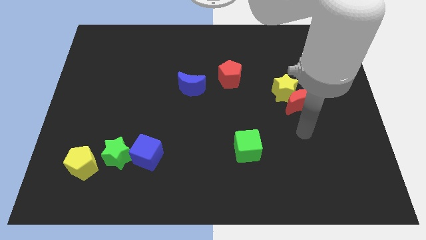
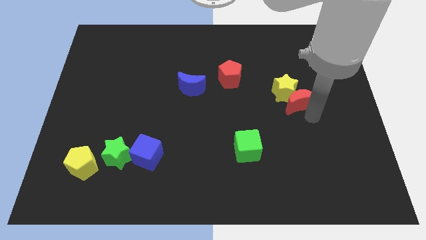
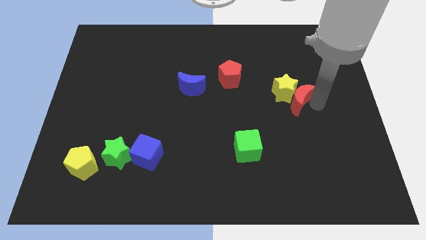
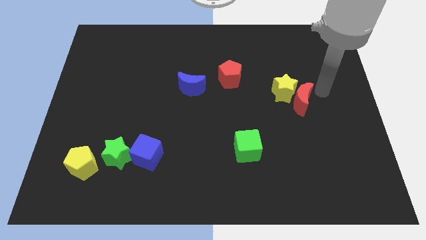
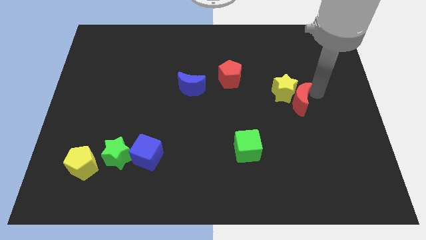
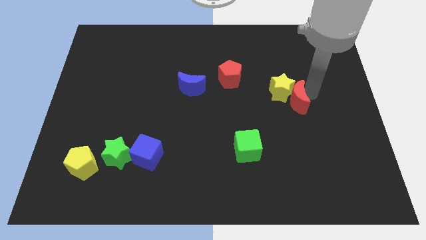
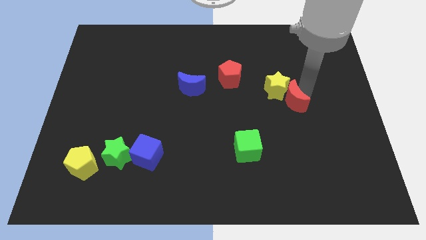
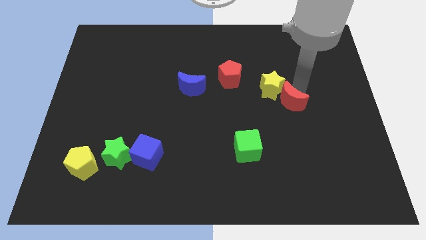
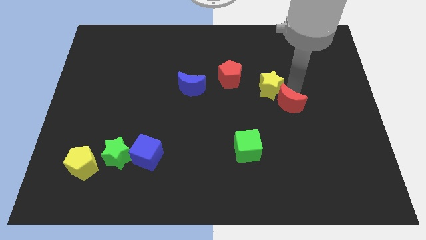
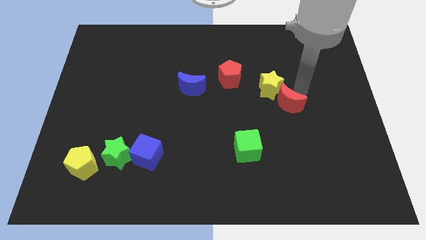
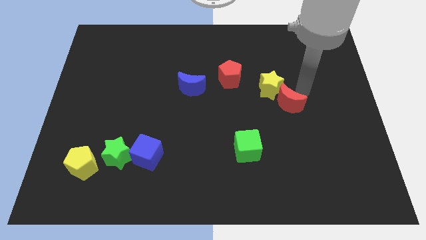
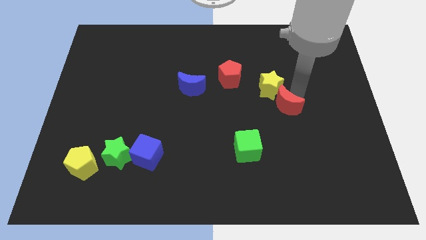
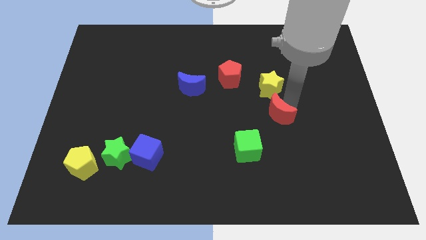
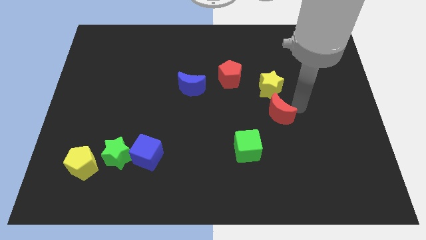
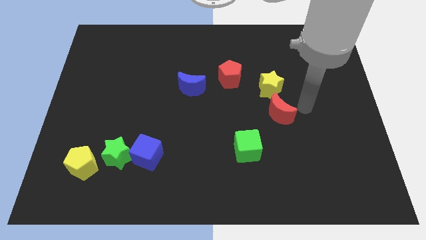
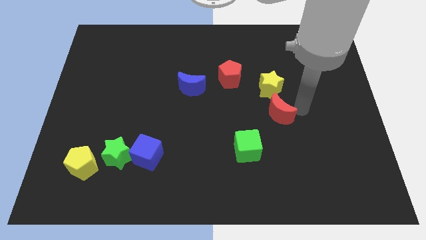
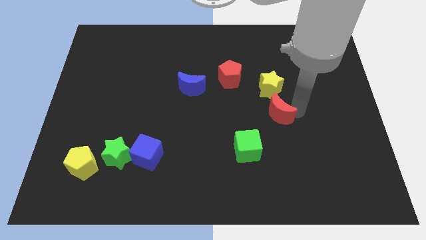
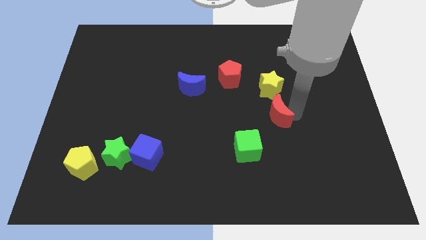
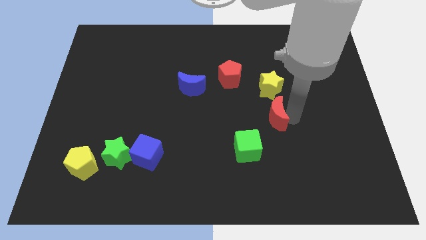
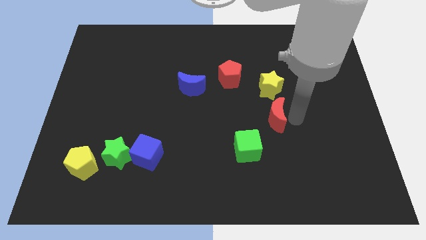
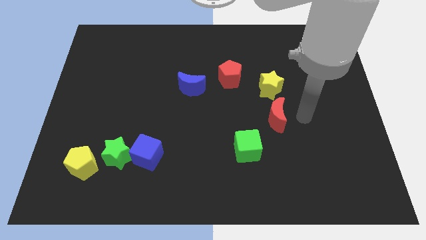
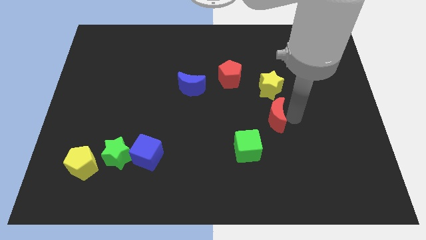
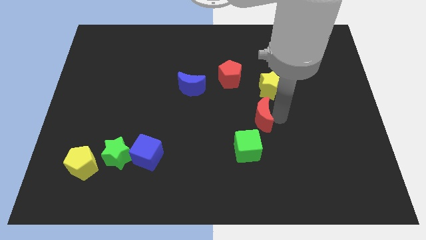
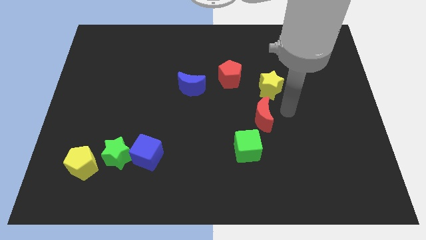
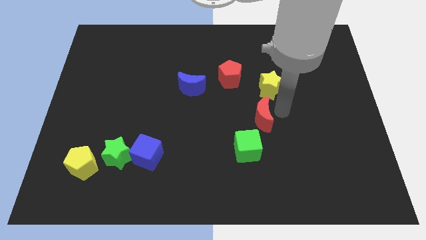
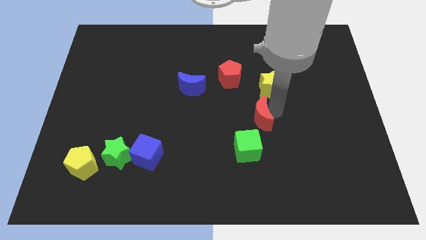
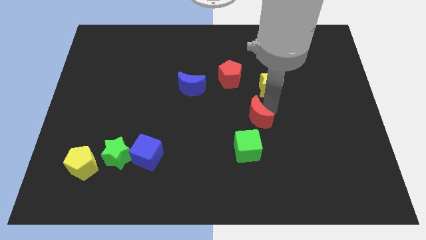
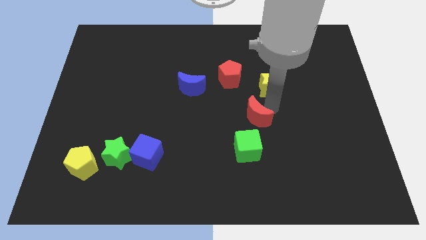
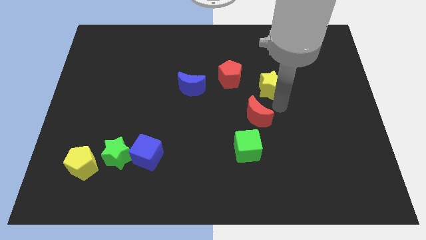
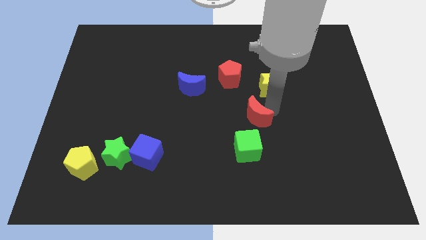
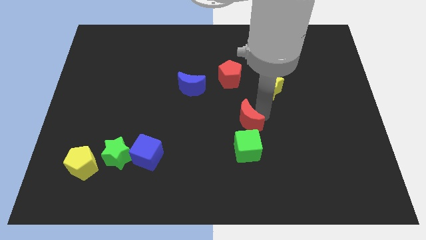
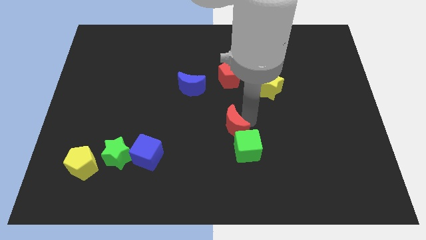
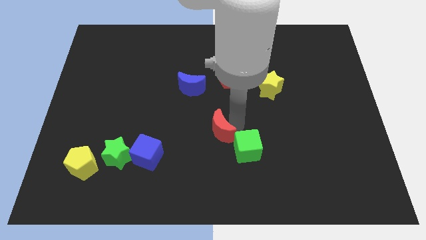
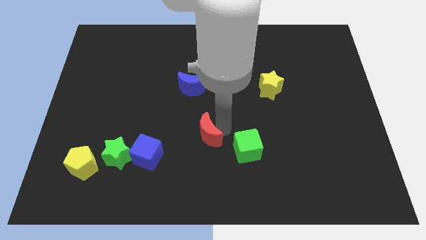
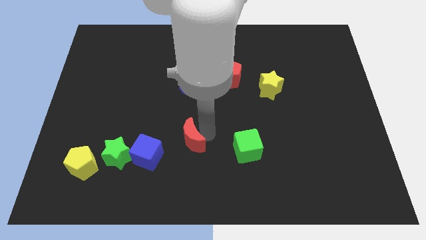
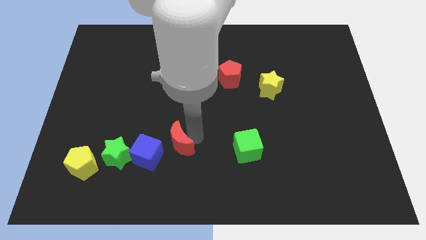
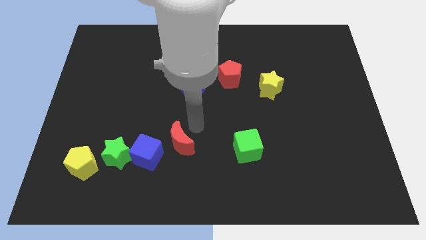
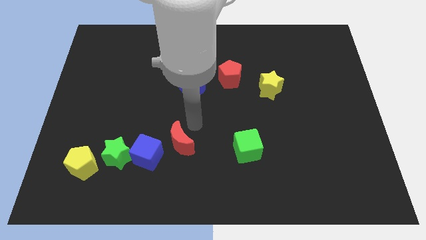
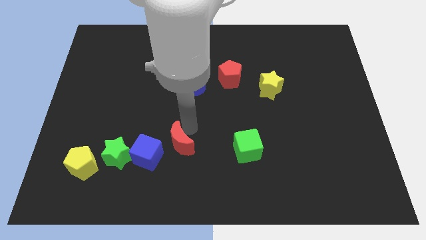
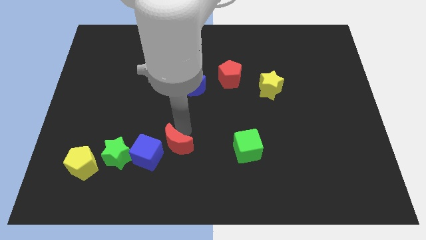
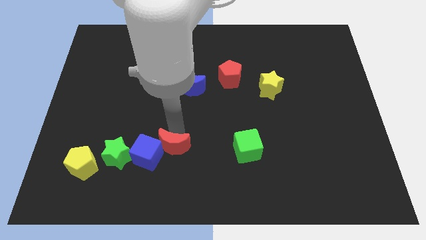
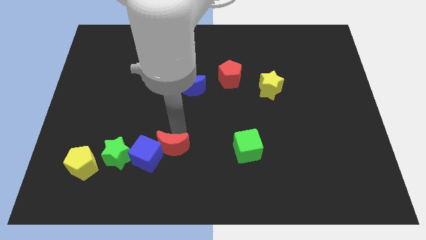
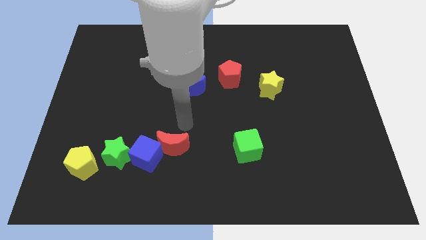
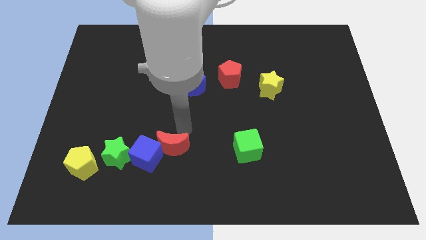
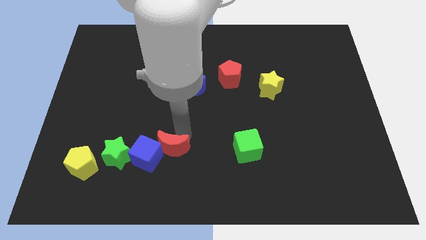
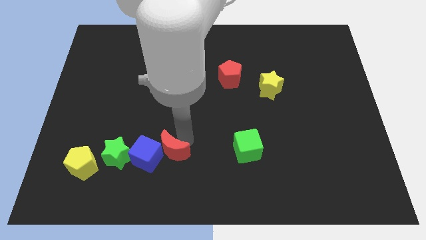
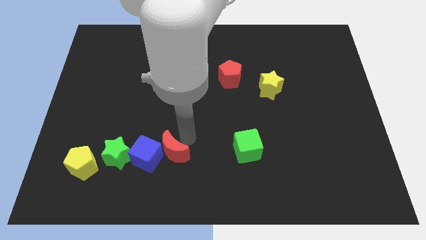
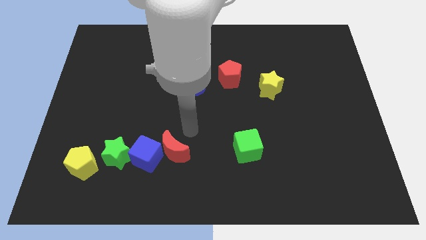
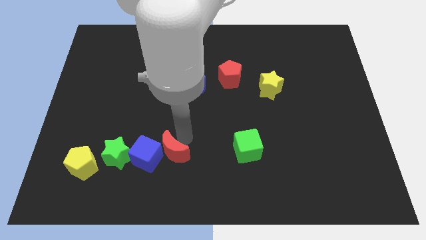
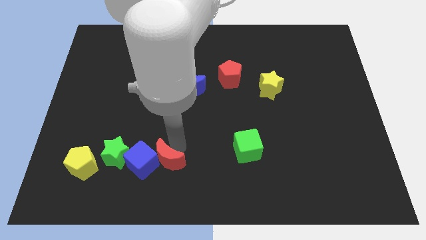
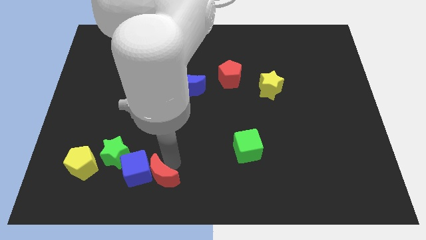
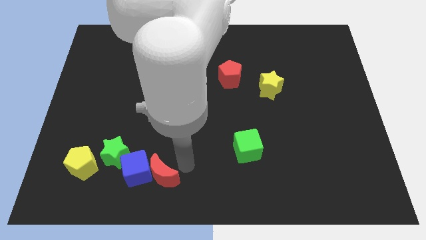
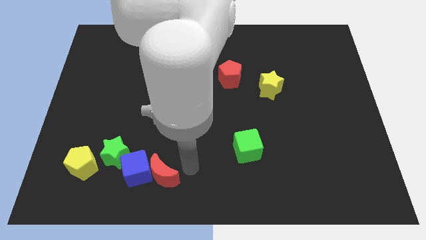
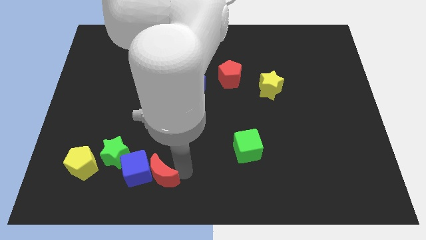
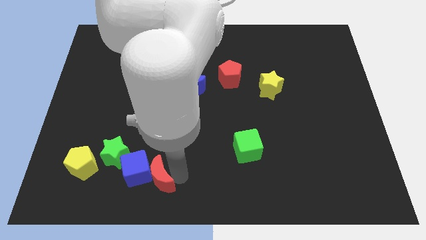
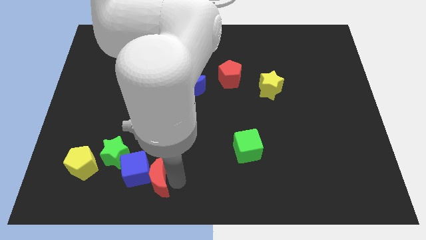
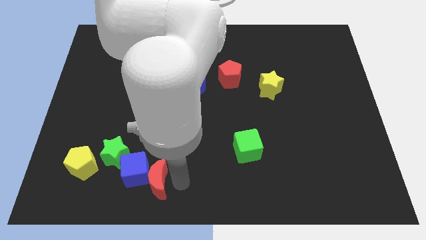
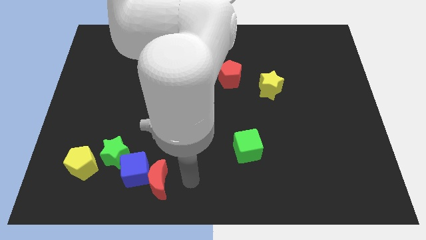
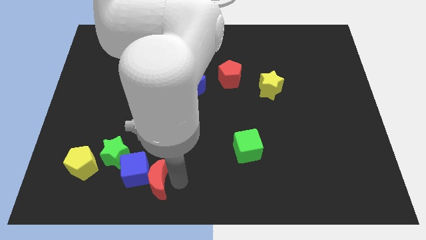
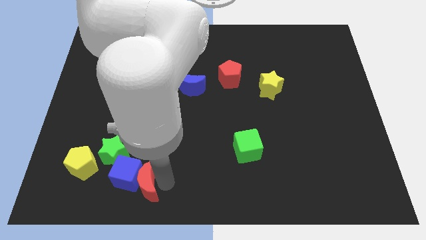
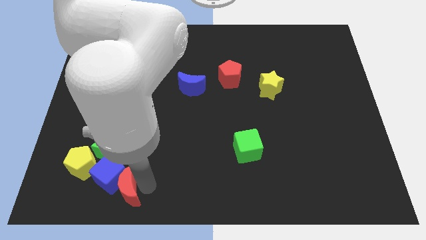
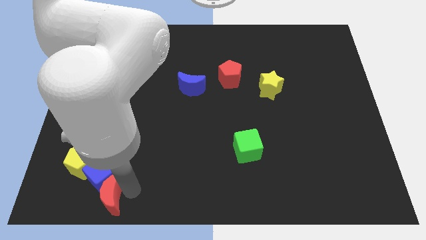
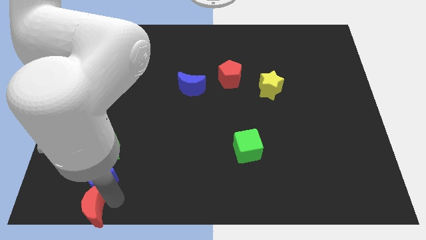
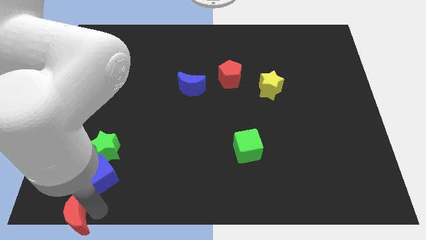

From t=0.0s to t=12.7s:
push the red moon to the bottom left

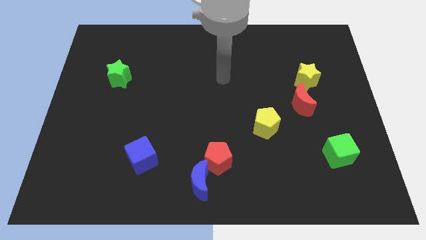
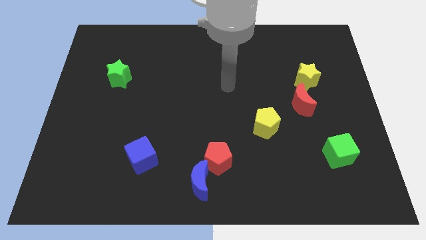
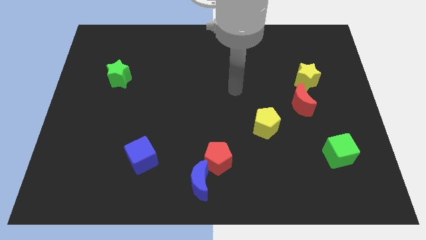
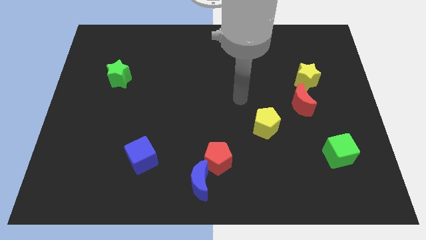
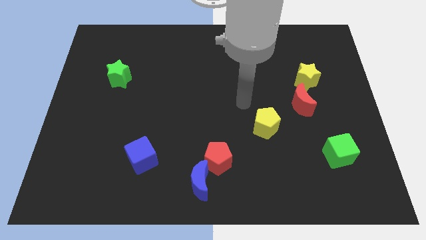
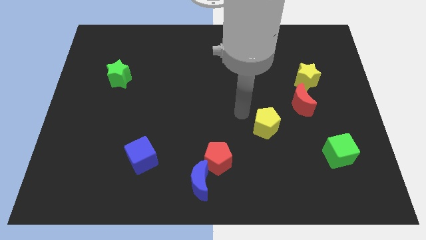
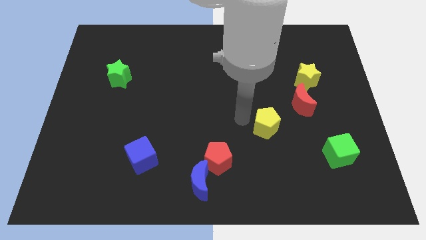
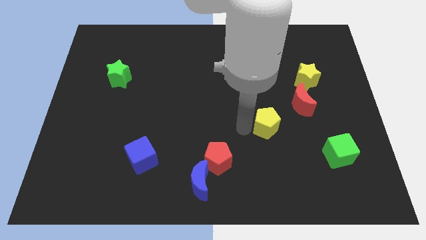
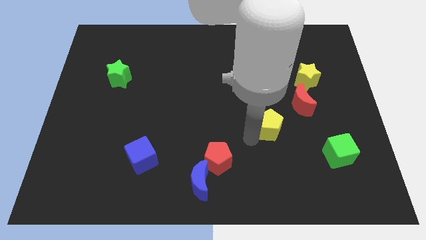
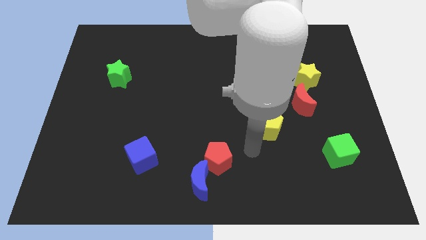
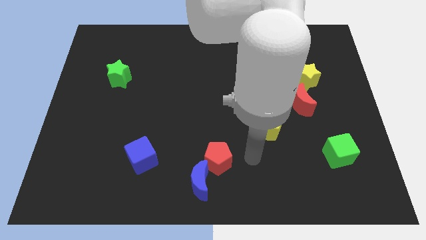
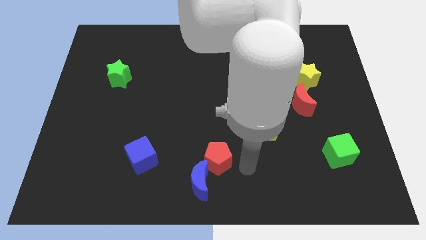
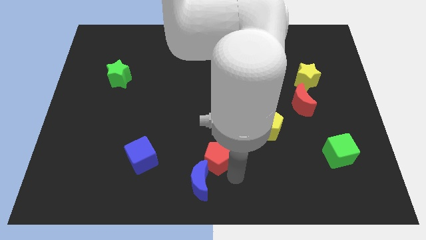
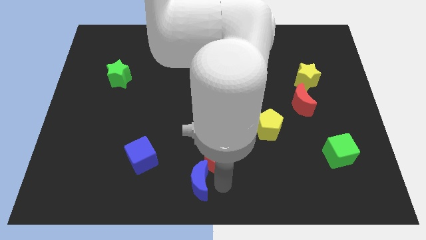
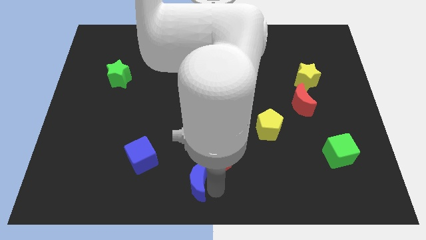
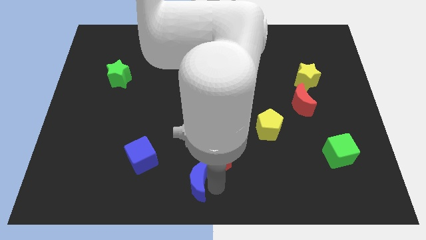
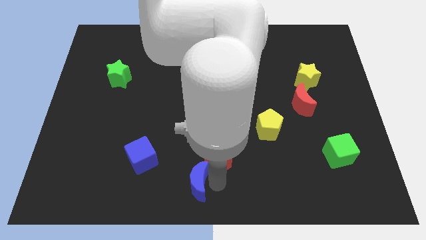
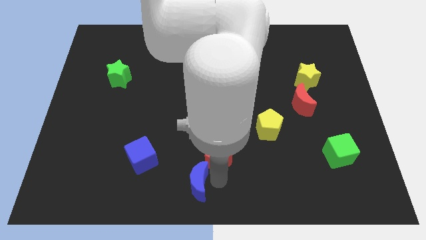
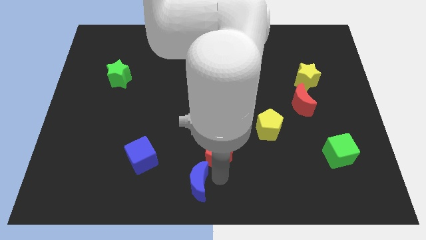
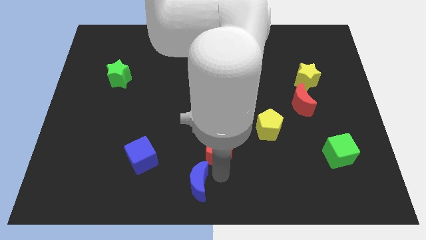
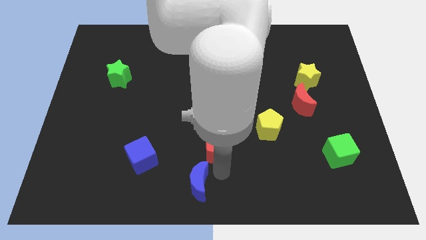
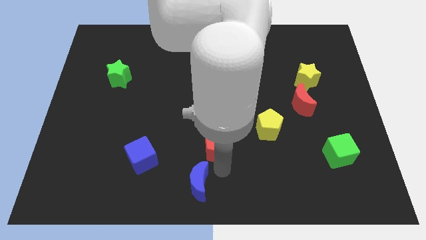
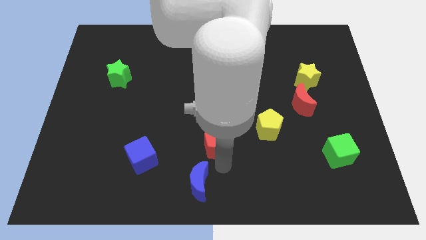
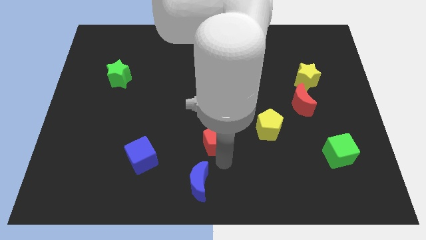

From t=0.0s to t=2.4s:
put the red pentagon to the middle of the board
